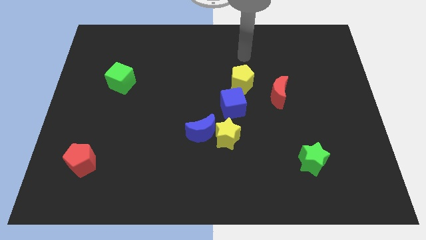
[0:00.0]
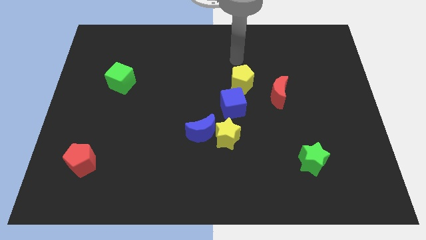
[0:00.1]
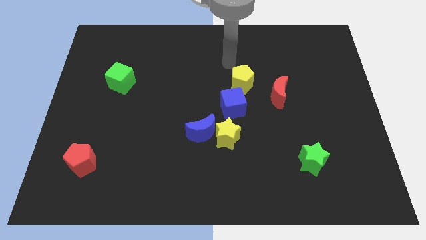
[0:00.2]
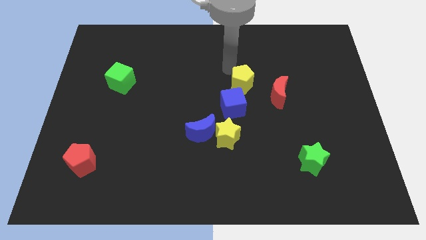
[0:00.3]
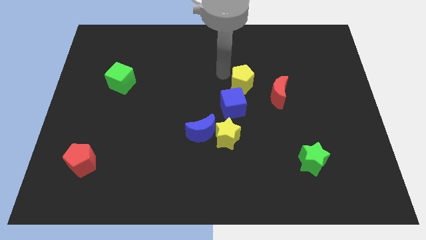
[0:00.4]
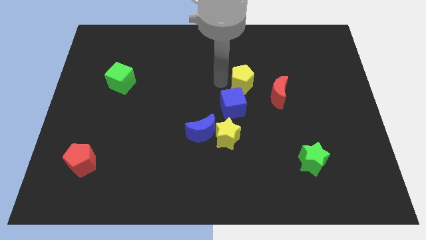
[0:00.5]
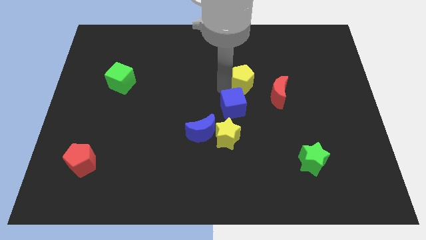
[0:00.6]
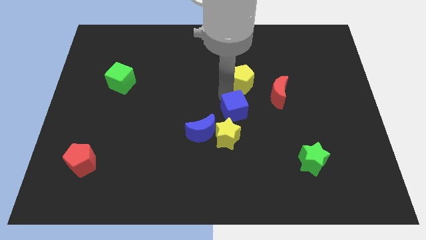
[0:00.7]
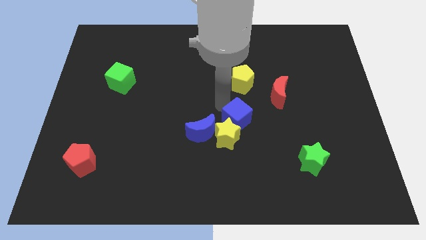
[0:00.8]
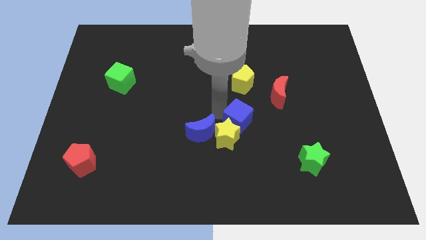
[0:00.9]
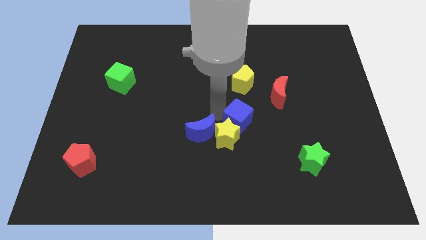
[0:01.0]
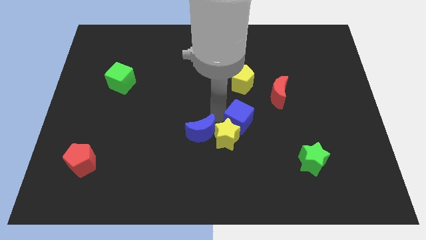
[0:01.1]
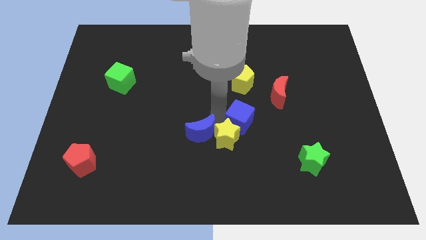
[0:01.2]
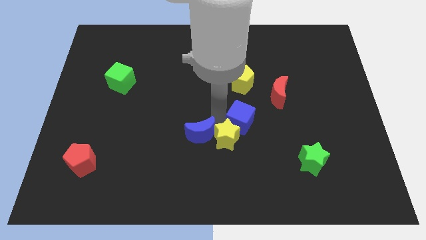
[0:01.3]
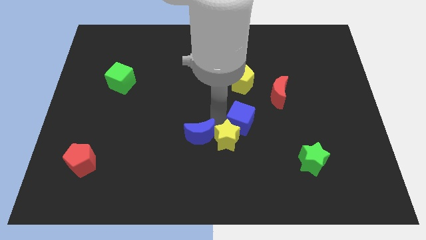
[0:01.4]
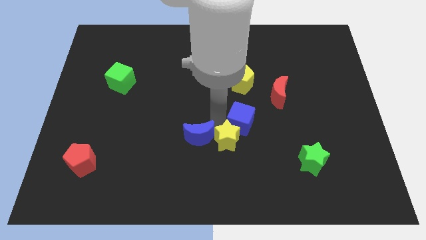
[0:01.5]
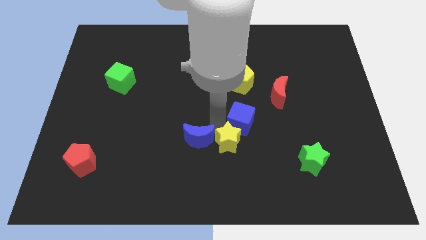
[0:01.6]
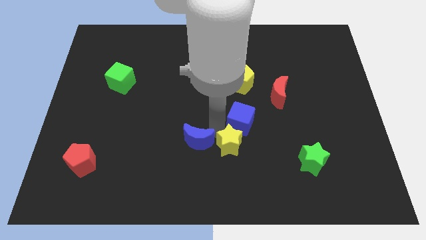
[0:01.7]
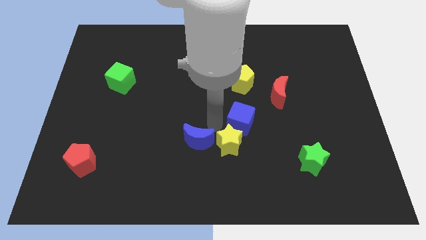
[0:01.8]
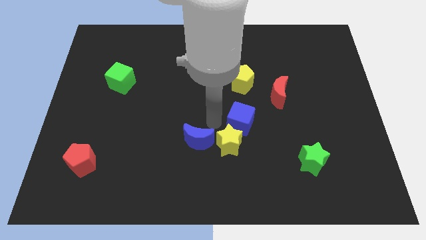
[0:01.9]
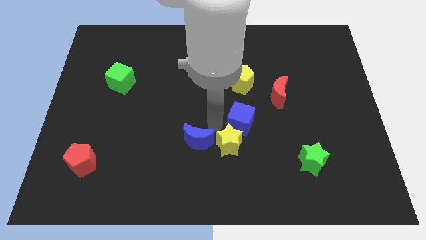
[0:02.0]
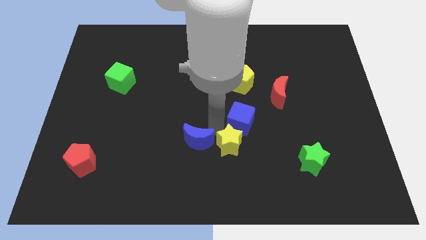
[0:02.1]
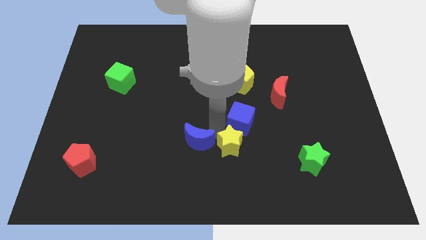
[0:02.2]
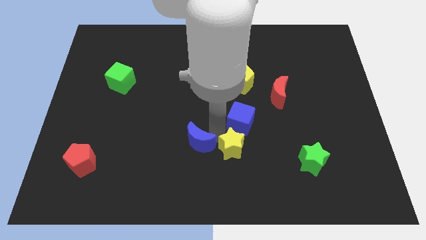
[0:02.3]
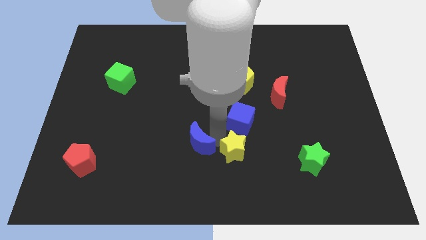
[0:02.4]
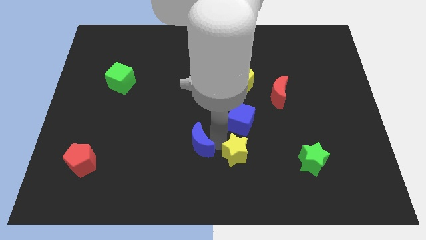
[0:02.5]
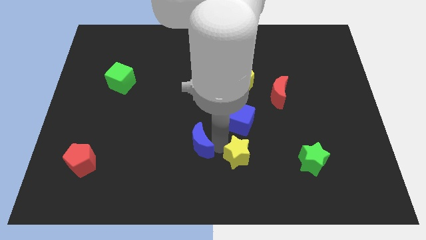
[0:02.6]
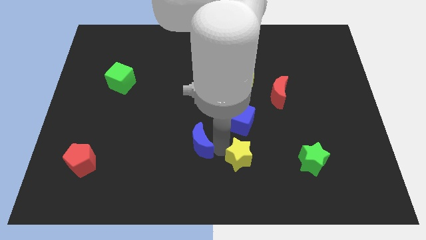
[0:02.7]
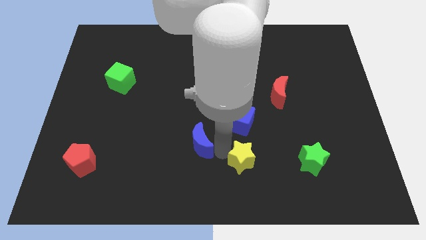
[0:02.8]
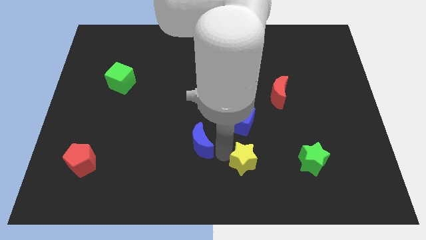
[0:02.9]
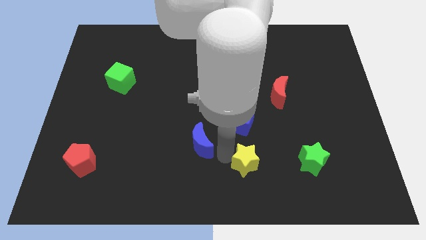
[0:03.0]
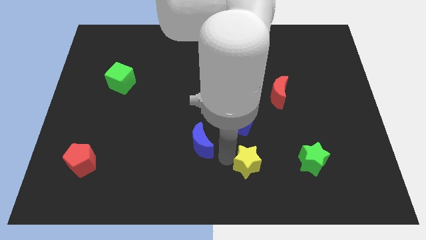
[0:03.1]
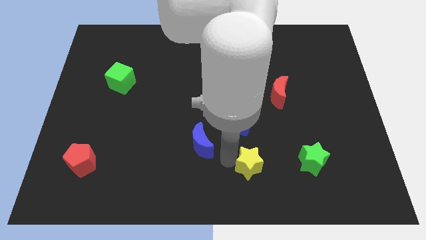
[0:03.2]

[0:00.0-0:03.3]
separate the yellow star from the blue moon and blue cube

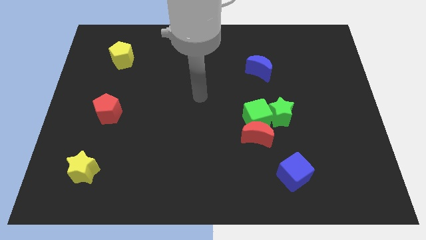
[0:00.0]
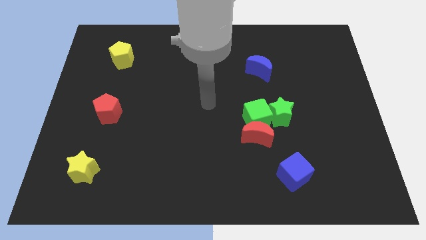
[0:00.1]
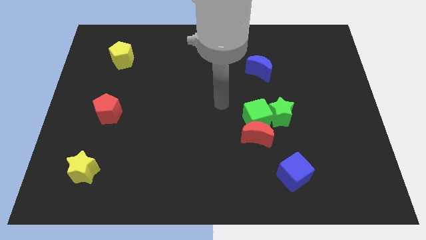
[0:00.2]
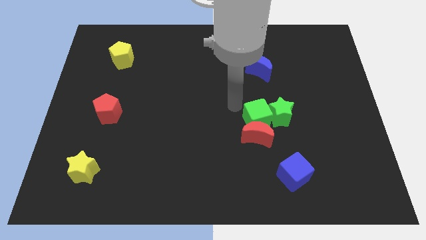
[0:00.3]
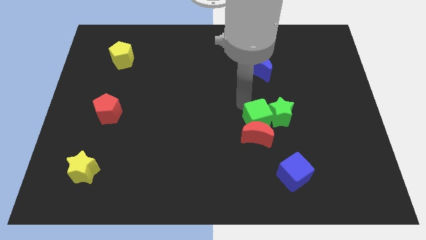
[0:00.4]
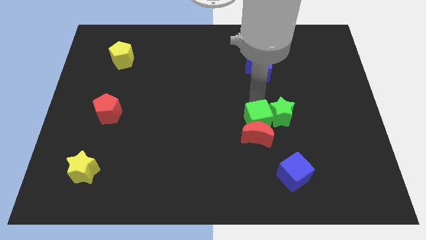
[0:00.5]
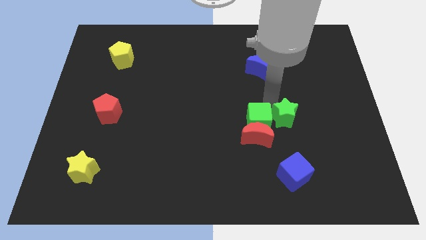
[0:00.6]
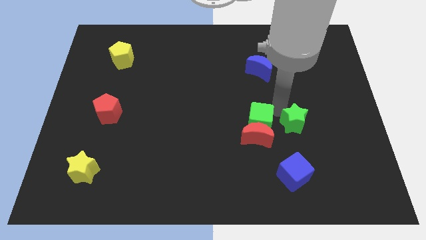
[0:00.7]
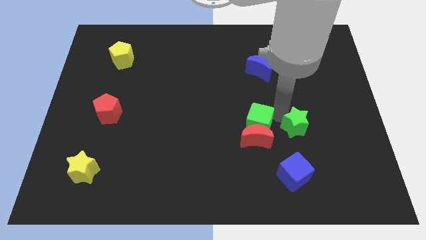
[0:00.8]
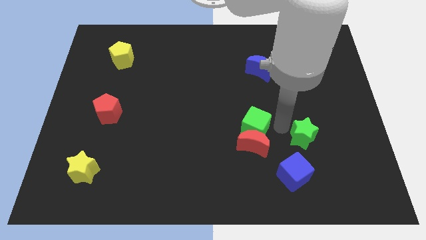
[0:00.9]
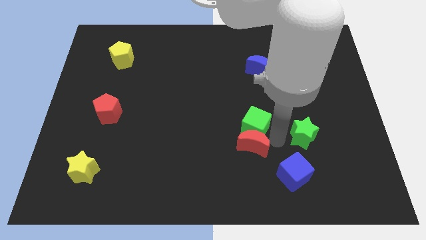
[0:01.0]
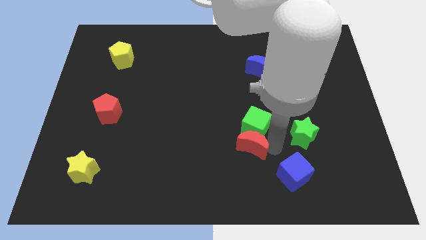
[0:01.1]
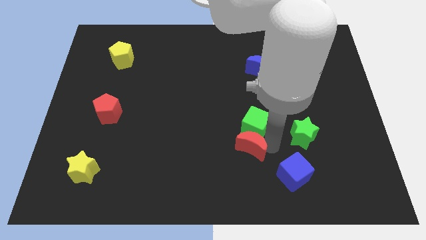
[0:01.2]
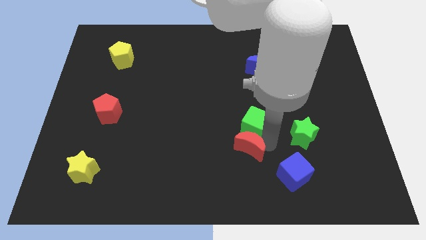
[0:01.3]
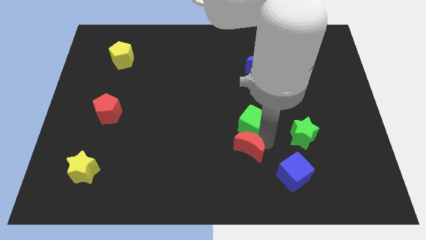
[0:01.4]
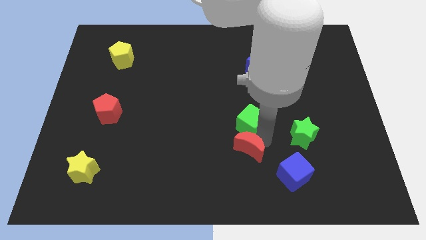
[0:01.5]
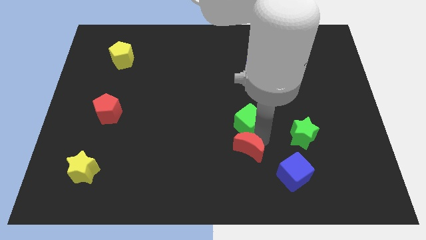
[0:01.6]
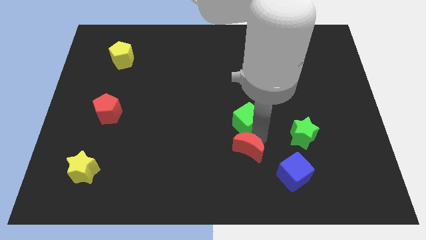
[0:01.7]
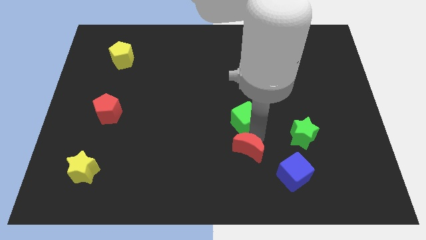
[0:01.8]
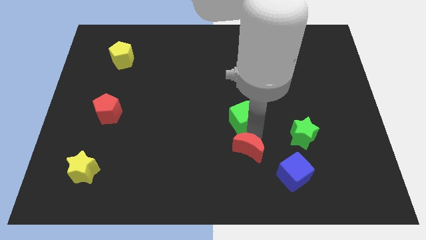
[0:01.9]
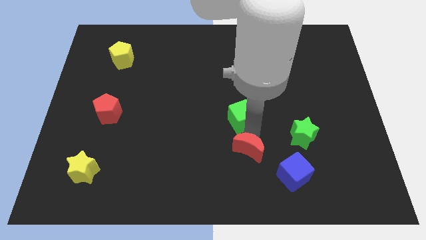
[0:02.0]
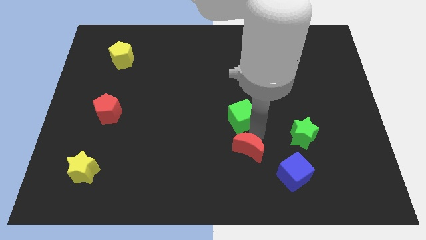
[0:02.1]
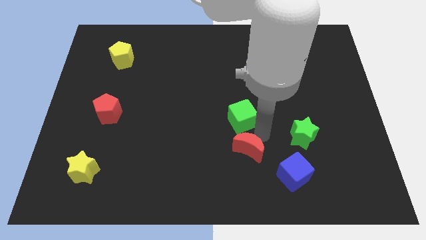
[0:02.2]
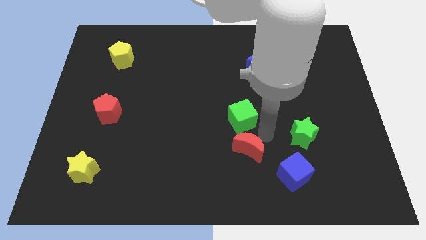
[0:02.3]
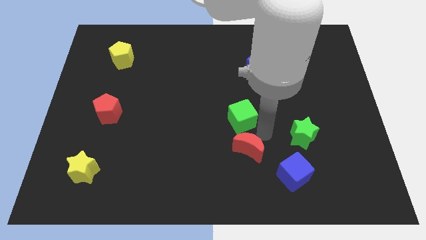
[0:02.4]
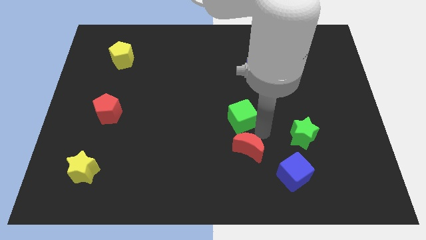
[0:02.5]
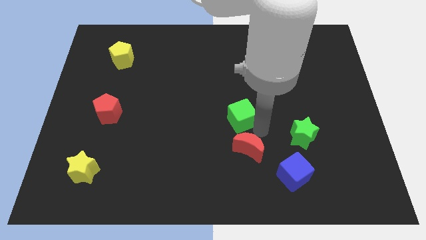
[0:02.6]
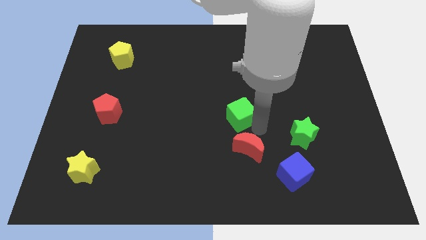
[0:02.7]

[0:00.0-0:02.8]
move the green cube away from the red moon and green star

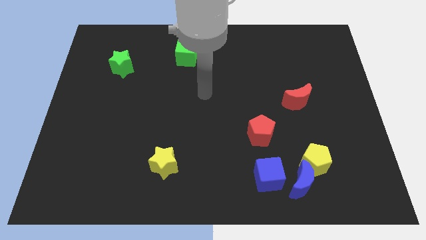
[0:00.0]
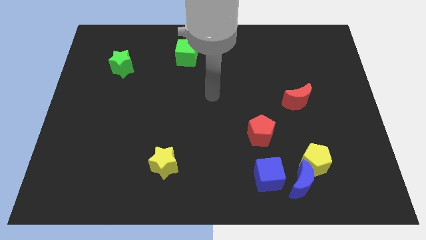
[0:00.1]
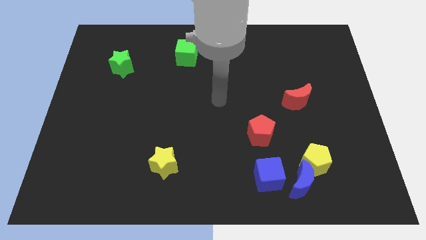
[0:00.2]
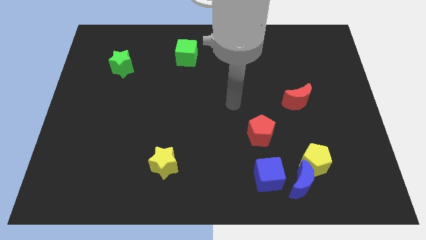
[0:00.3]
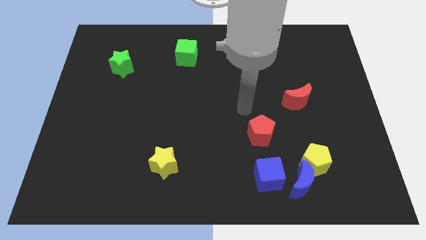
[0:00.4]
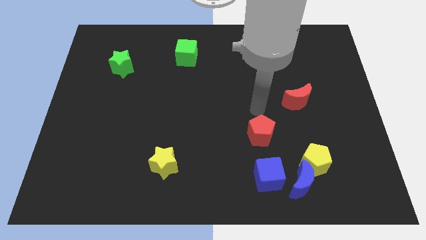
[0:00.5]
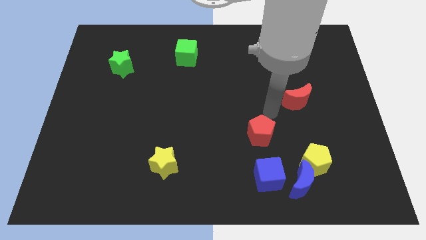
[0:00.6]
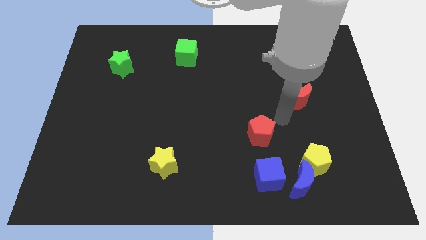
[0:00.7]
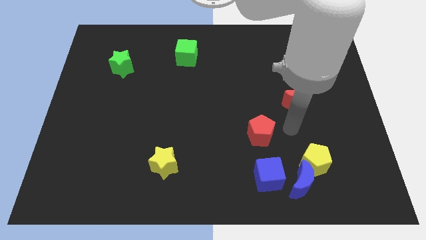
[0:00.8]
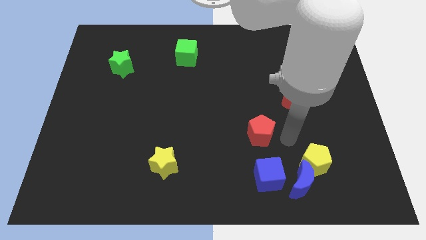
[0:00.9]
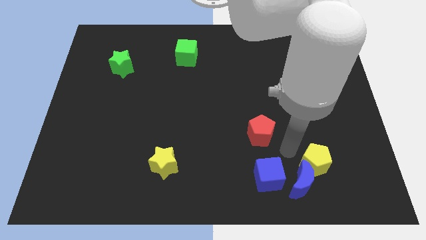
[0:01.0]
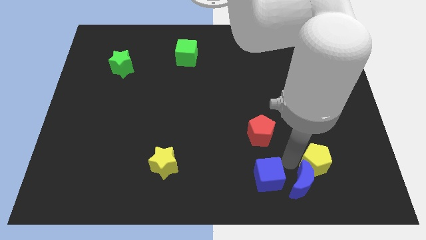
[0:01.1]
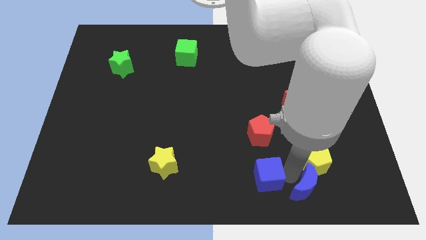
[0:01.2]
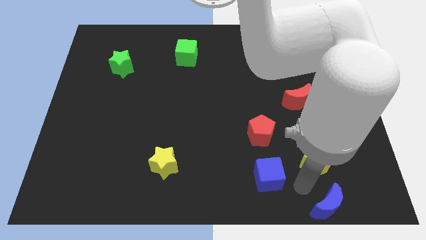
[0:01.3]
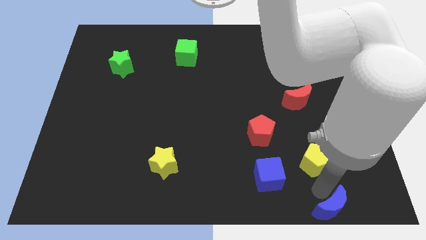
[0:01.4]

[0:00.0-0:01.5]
separate the yellow pentagon from the blue moon

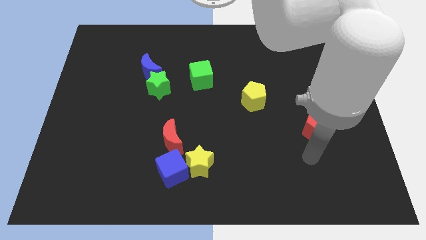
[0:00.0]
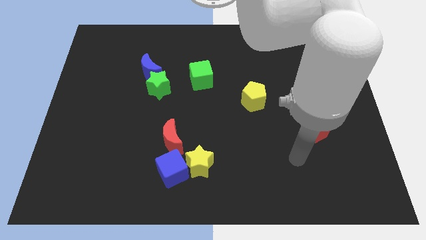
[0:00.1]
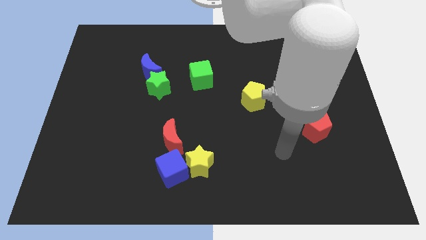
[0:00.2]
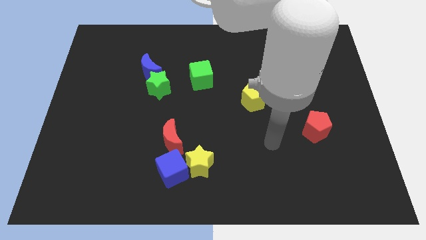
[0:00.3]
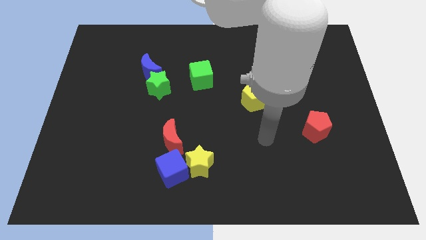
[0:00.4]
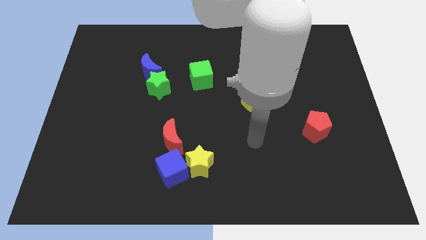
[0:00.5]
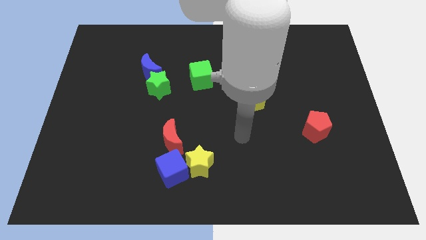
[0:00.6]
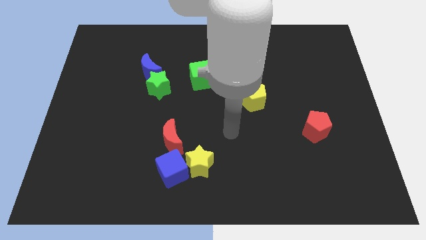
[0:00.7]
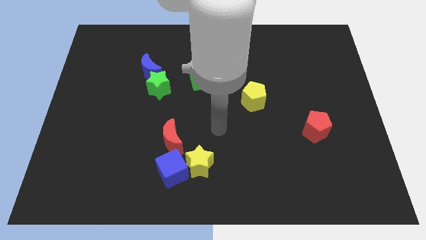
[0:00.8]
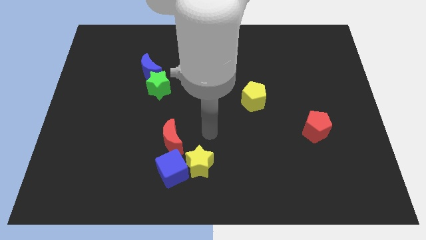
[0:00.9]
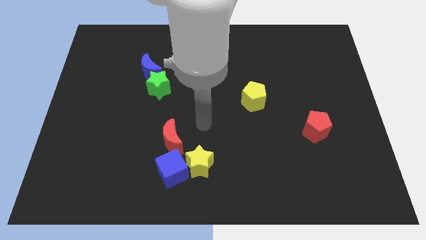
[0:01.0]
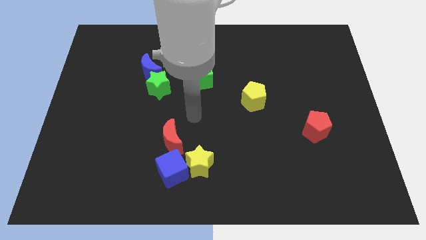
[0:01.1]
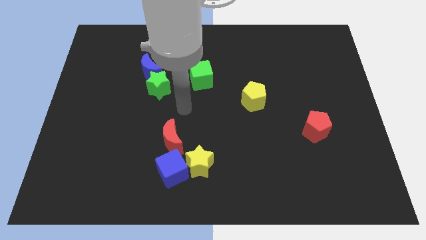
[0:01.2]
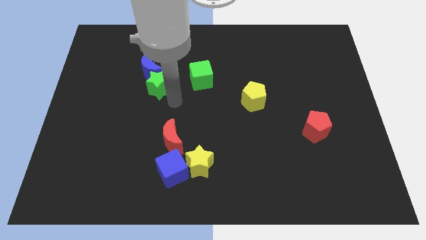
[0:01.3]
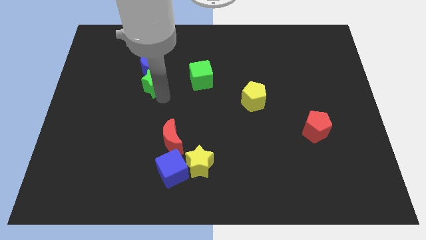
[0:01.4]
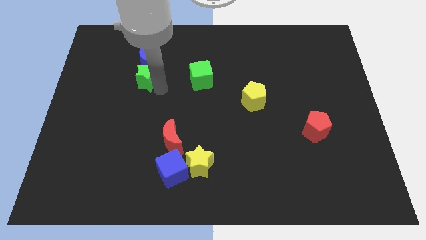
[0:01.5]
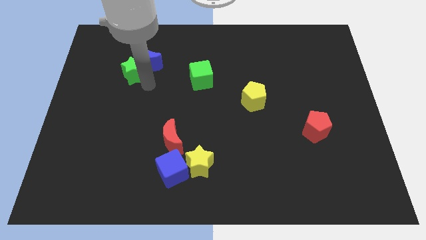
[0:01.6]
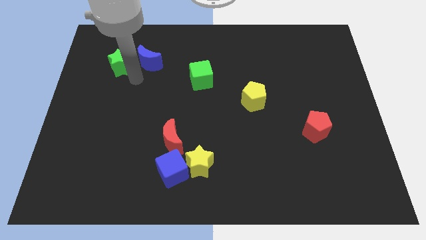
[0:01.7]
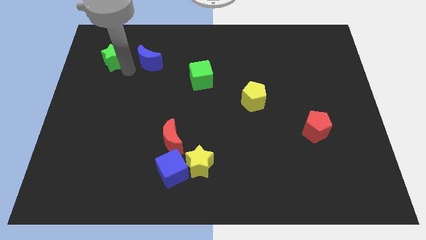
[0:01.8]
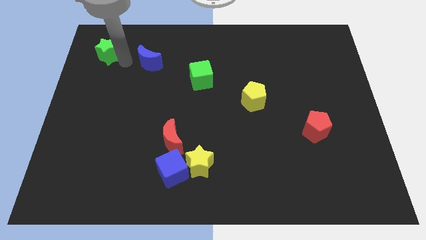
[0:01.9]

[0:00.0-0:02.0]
separate the blue moon from the green star
